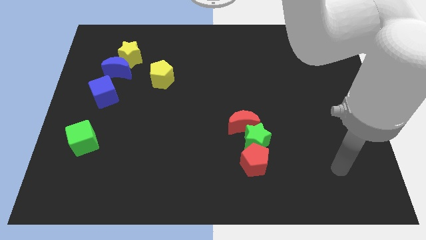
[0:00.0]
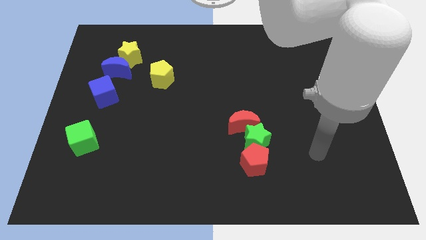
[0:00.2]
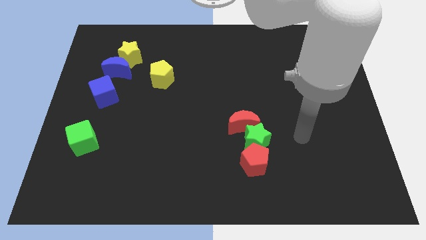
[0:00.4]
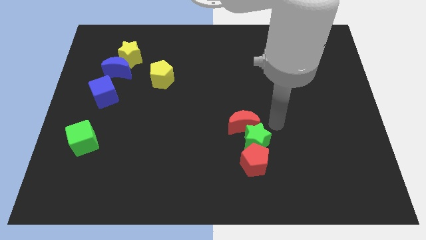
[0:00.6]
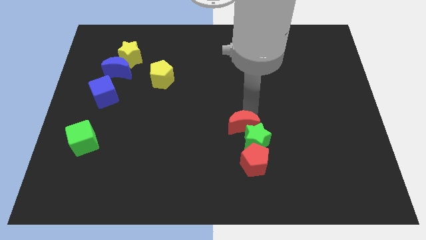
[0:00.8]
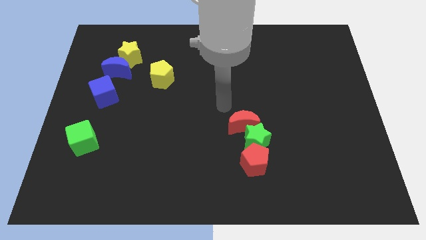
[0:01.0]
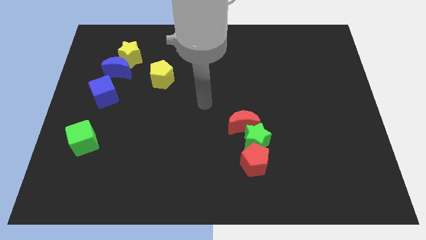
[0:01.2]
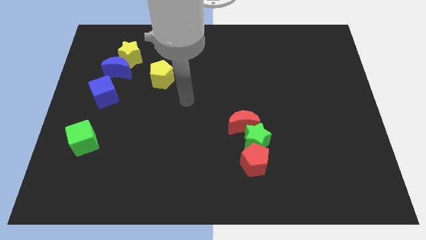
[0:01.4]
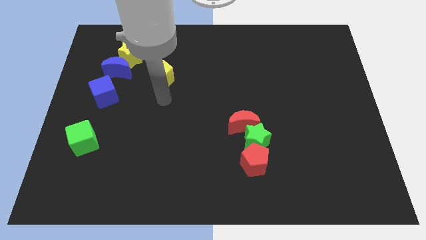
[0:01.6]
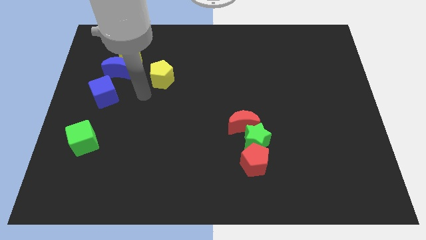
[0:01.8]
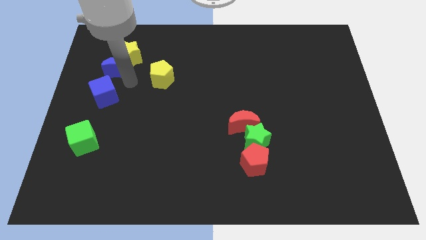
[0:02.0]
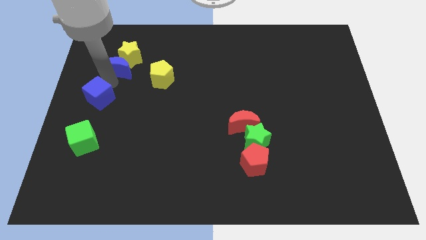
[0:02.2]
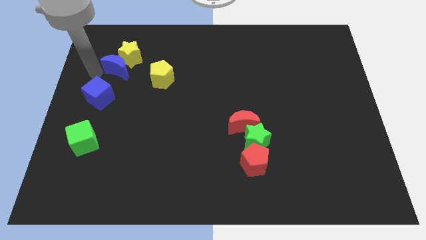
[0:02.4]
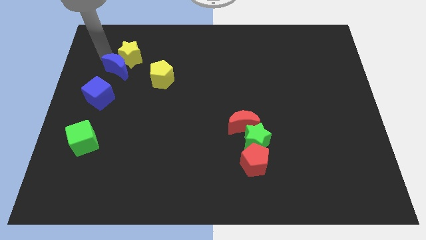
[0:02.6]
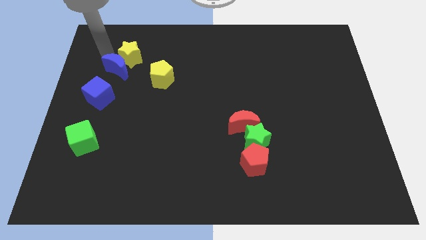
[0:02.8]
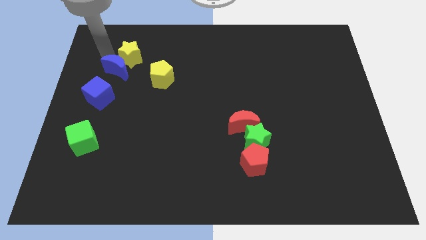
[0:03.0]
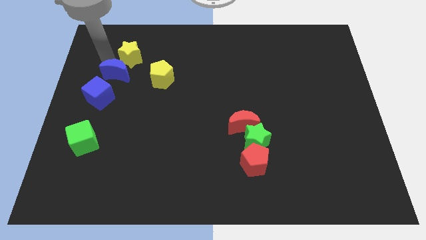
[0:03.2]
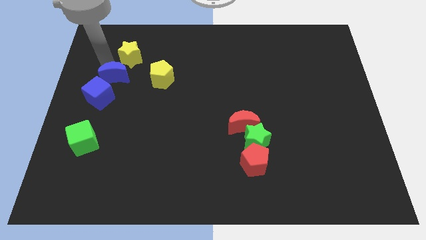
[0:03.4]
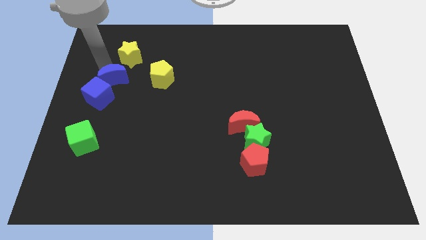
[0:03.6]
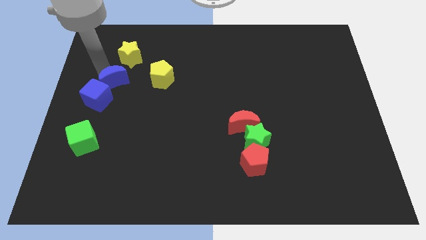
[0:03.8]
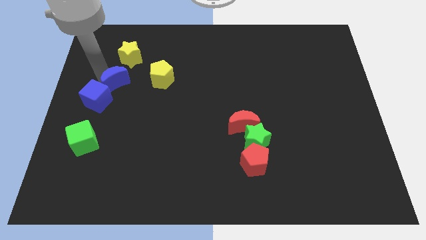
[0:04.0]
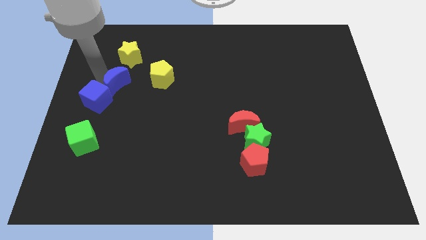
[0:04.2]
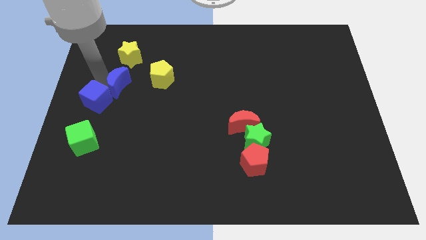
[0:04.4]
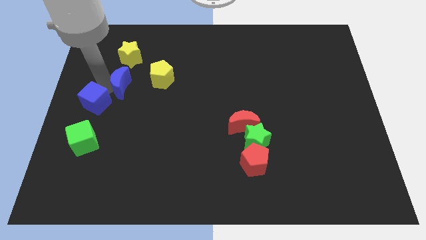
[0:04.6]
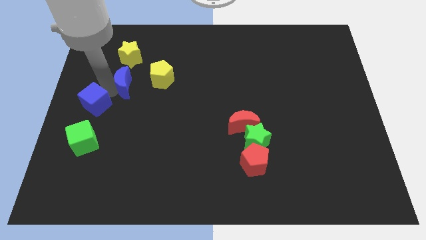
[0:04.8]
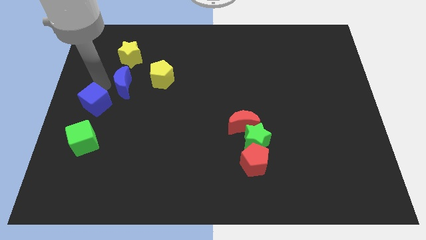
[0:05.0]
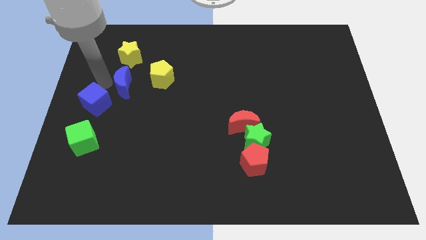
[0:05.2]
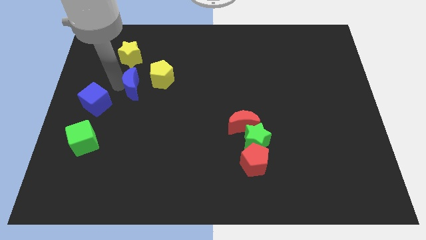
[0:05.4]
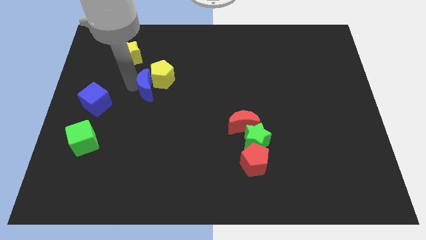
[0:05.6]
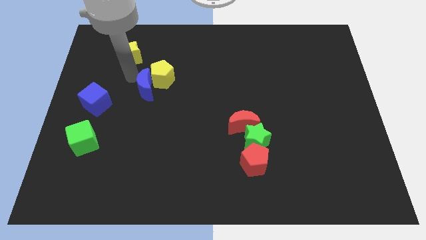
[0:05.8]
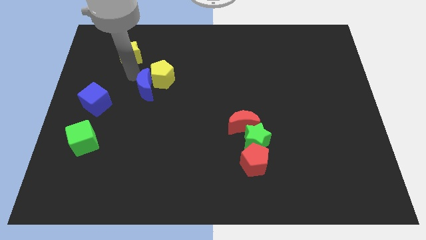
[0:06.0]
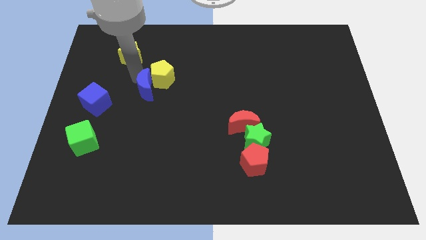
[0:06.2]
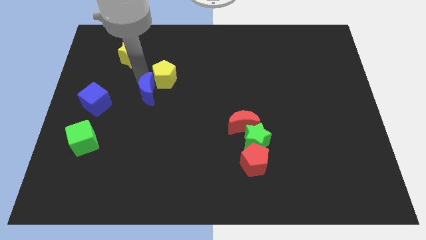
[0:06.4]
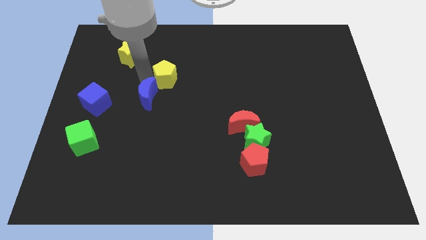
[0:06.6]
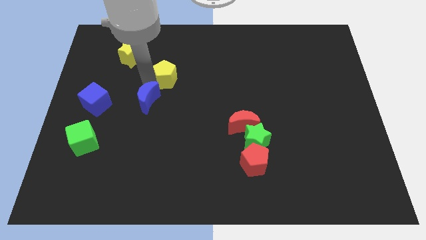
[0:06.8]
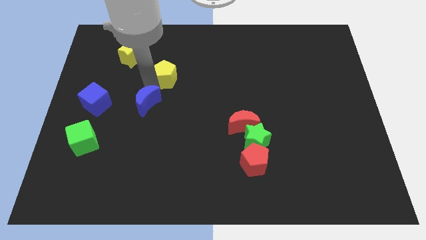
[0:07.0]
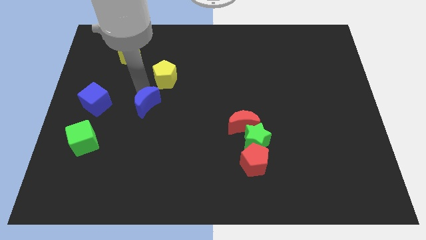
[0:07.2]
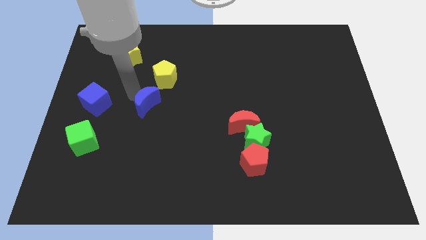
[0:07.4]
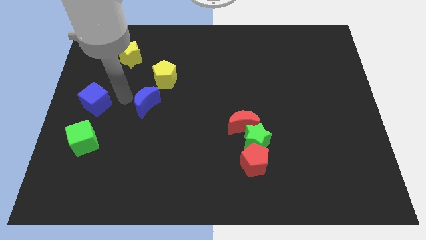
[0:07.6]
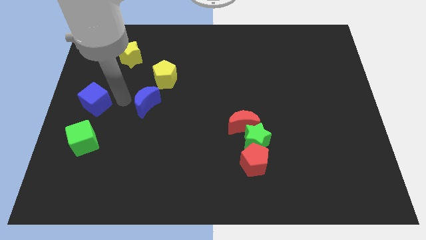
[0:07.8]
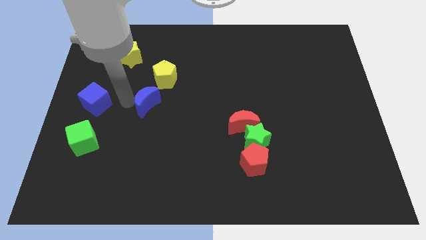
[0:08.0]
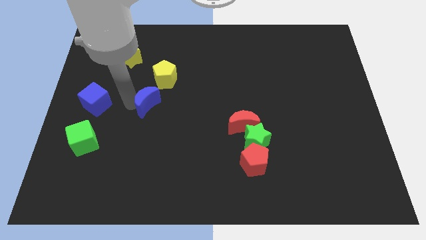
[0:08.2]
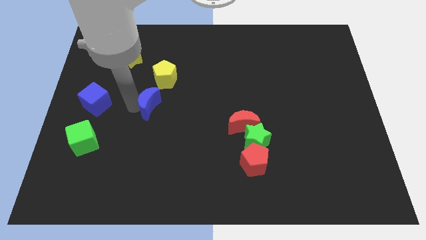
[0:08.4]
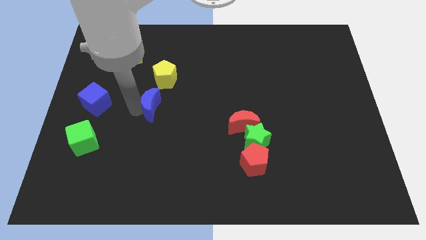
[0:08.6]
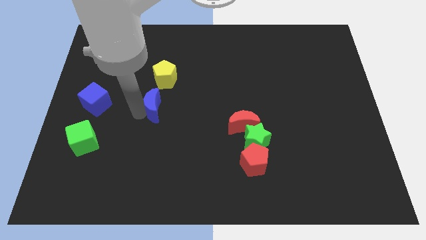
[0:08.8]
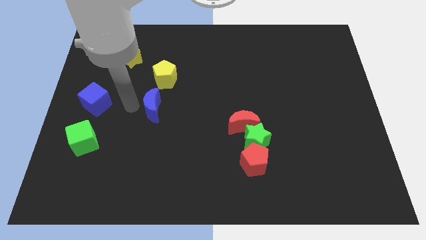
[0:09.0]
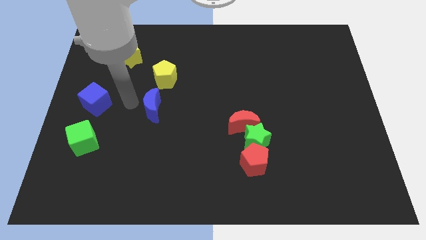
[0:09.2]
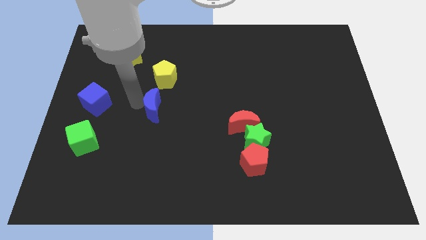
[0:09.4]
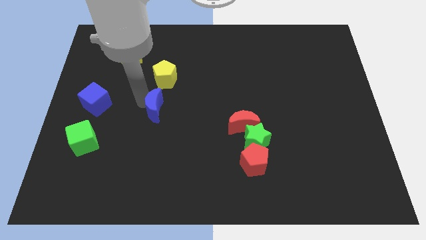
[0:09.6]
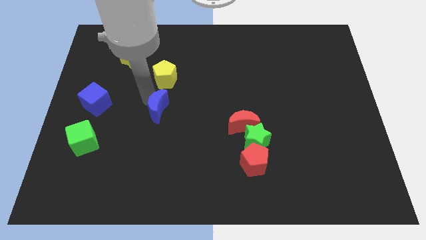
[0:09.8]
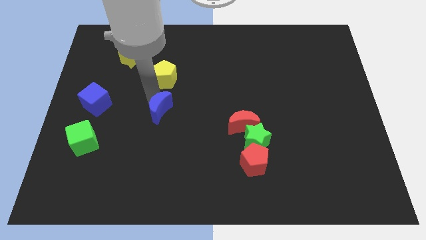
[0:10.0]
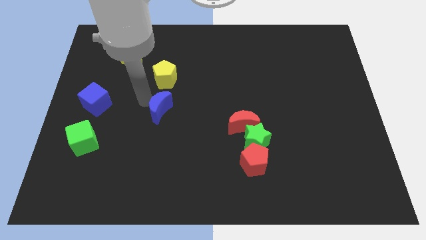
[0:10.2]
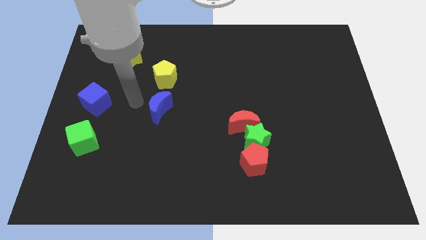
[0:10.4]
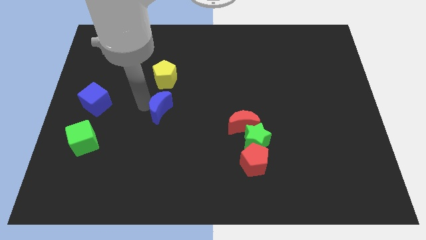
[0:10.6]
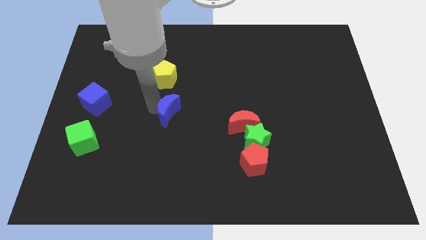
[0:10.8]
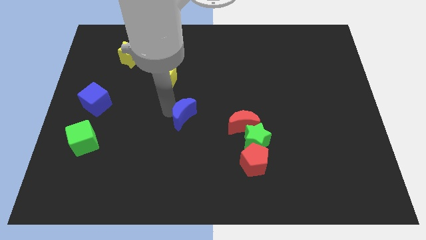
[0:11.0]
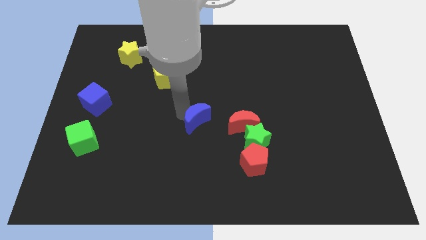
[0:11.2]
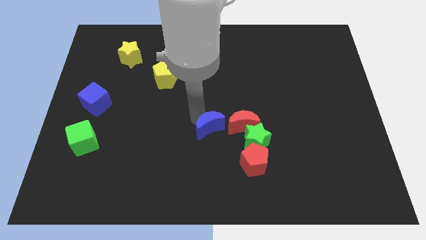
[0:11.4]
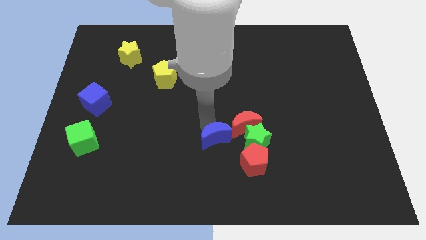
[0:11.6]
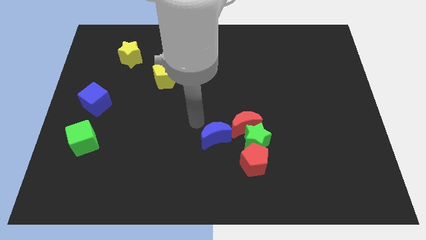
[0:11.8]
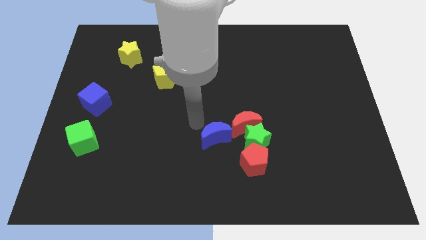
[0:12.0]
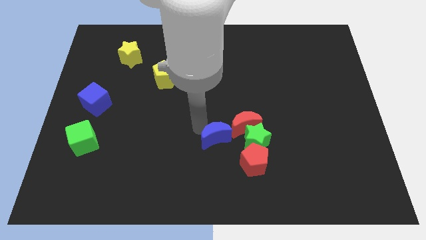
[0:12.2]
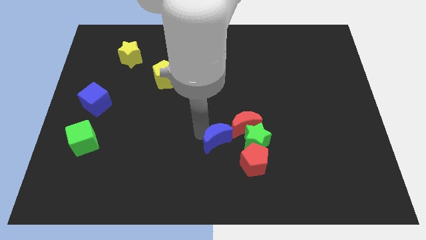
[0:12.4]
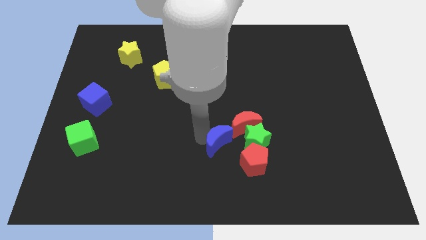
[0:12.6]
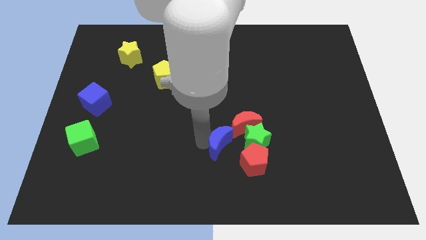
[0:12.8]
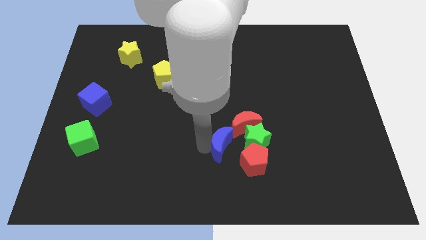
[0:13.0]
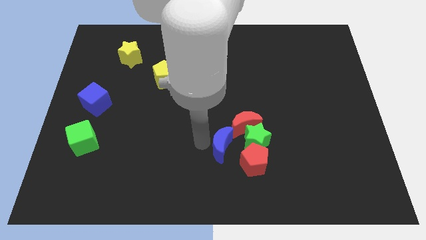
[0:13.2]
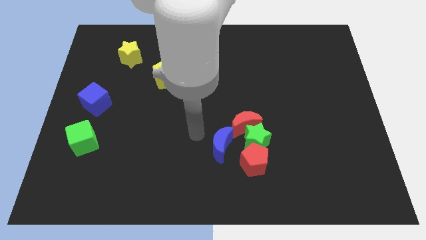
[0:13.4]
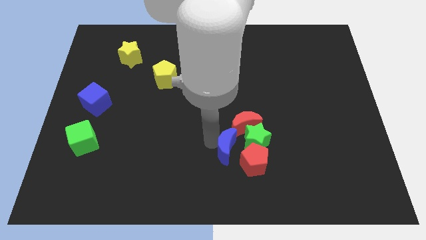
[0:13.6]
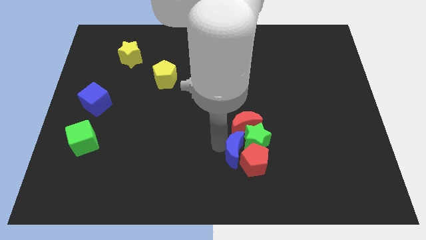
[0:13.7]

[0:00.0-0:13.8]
slide the blue moon towards the red pentagon

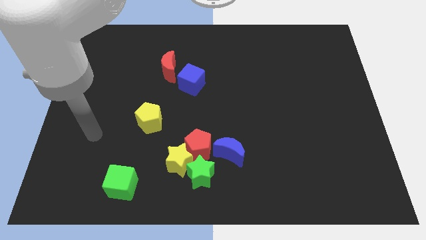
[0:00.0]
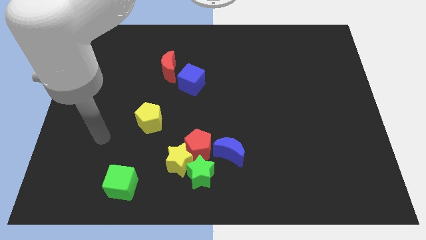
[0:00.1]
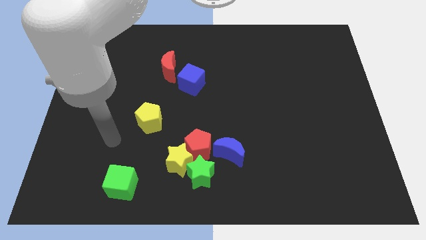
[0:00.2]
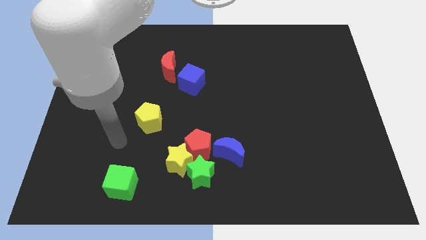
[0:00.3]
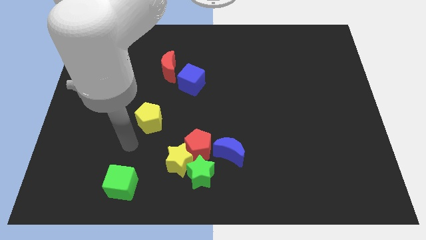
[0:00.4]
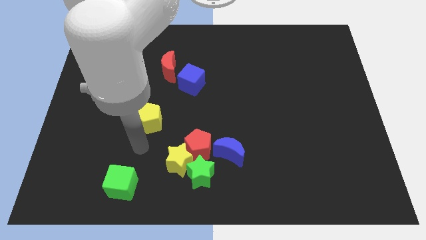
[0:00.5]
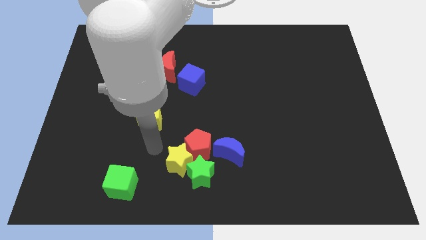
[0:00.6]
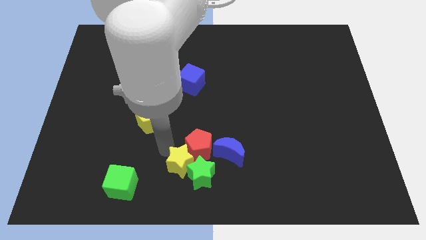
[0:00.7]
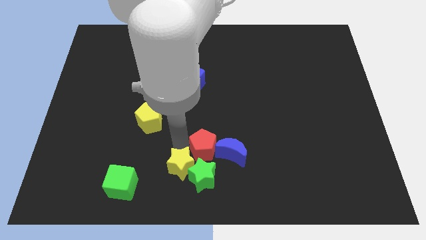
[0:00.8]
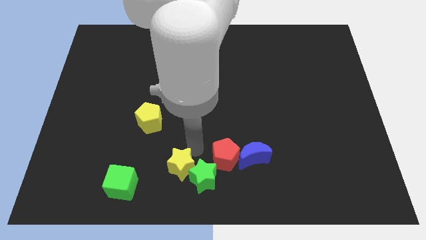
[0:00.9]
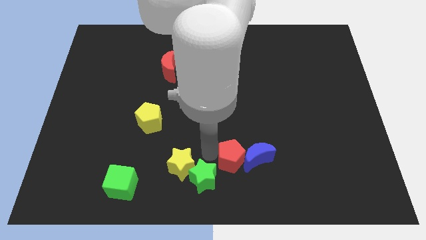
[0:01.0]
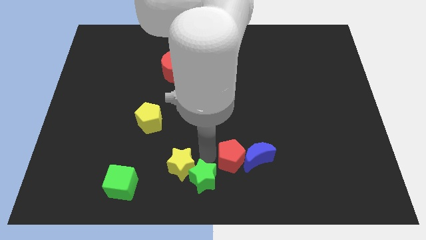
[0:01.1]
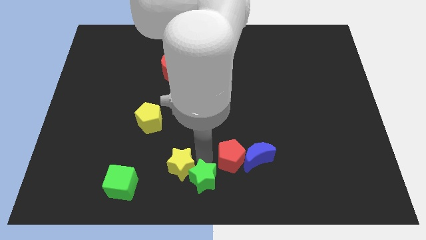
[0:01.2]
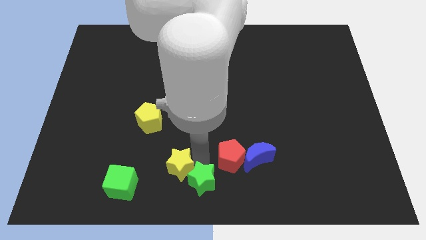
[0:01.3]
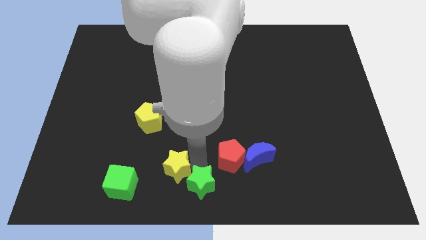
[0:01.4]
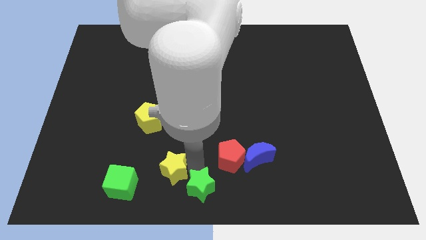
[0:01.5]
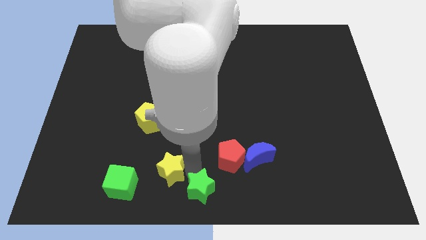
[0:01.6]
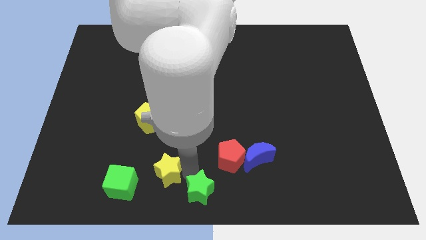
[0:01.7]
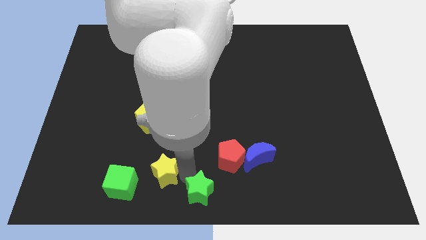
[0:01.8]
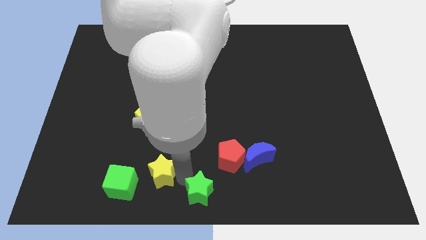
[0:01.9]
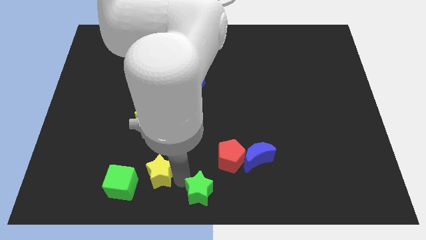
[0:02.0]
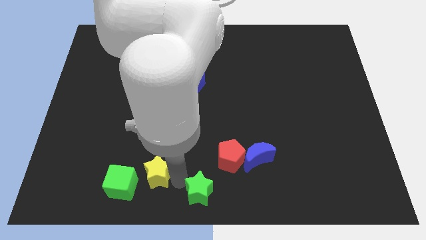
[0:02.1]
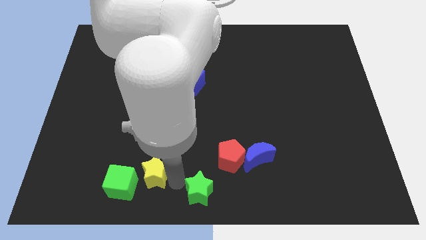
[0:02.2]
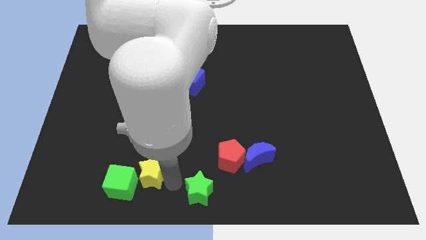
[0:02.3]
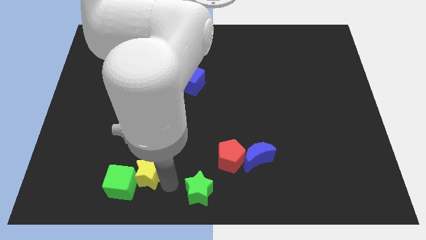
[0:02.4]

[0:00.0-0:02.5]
slide the yellow star close to the green cube
